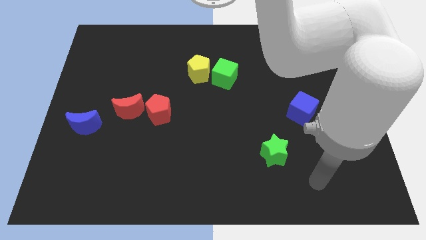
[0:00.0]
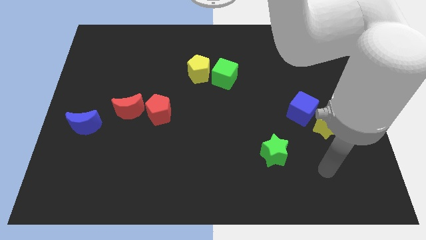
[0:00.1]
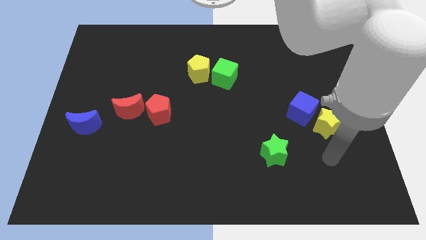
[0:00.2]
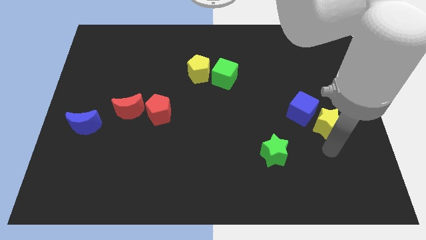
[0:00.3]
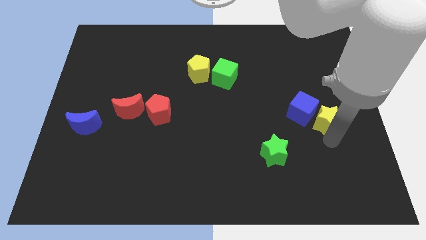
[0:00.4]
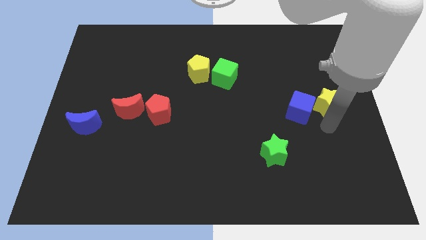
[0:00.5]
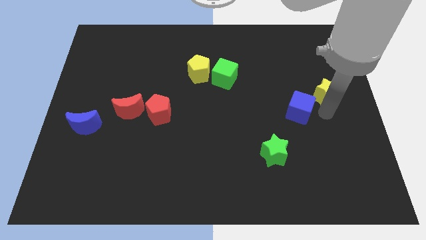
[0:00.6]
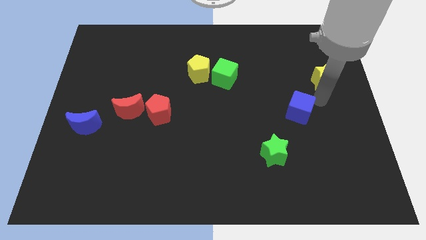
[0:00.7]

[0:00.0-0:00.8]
separate the blue cube from the yellow star

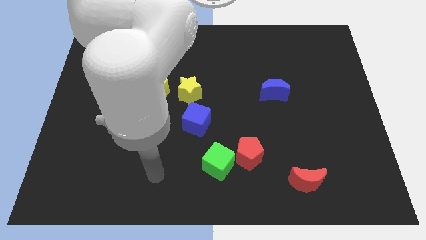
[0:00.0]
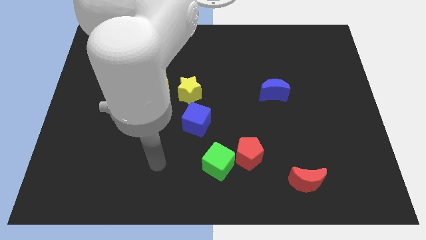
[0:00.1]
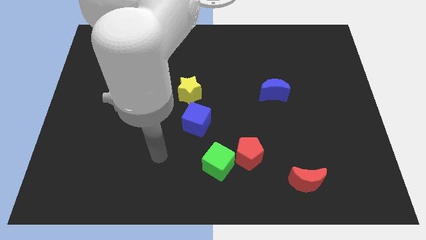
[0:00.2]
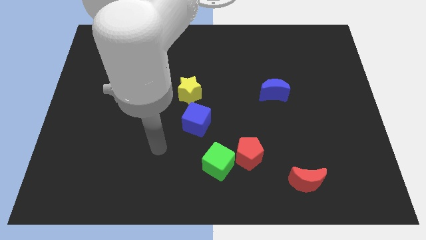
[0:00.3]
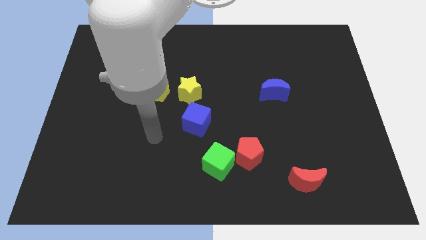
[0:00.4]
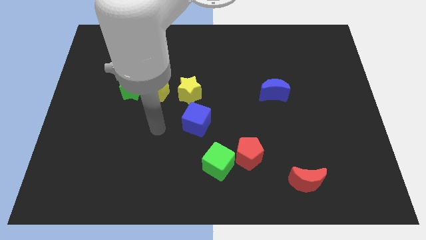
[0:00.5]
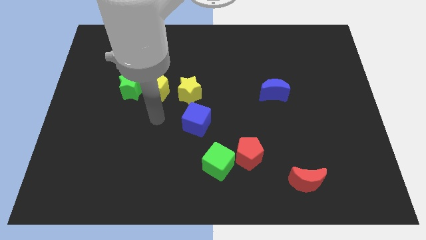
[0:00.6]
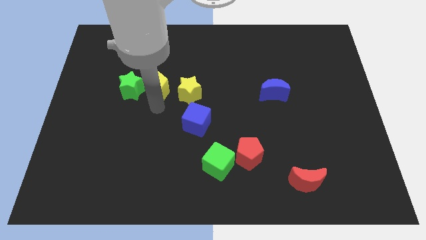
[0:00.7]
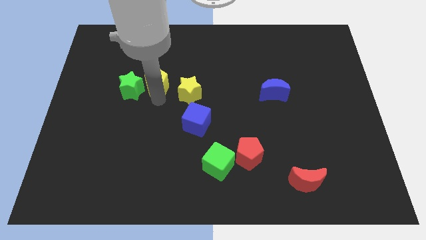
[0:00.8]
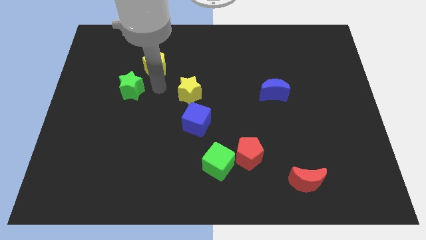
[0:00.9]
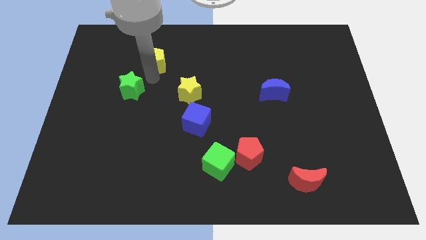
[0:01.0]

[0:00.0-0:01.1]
separate the green star from the yellow pentagon

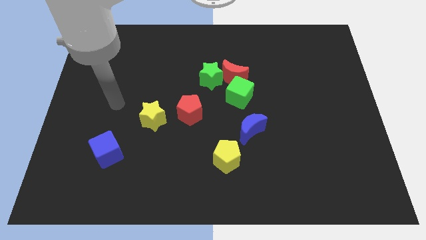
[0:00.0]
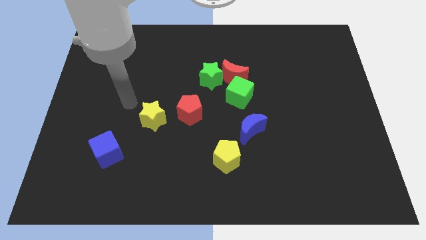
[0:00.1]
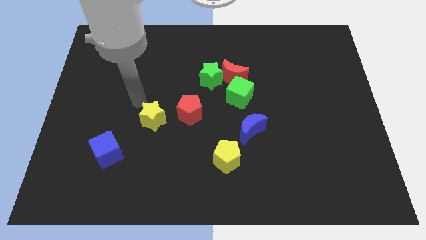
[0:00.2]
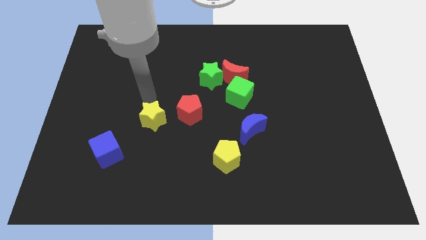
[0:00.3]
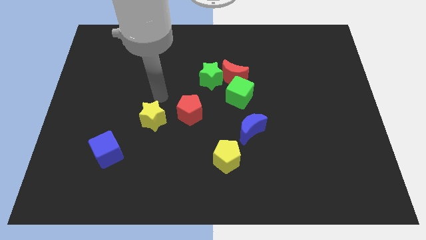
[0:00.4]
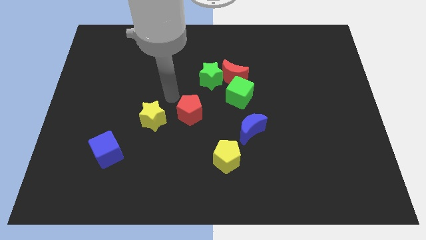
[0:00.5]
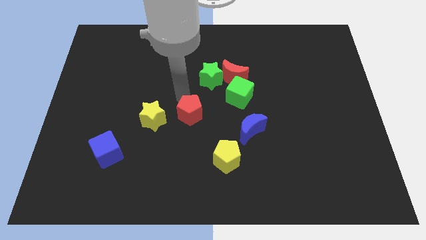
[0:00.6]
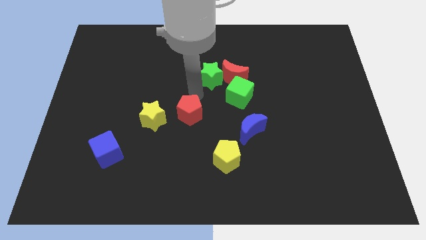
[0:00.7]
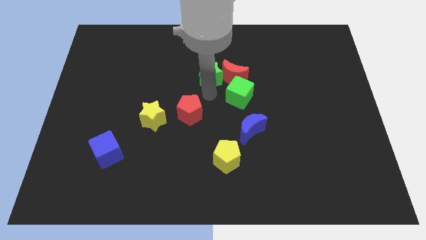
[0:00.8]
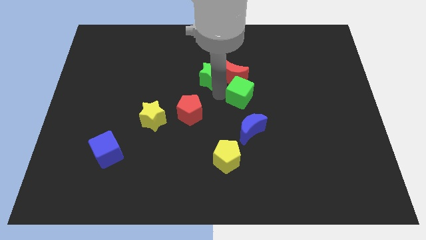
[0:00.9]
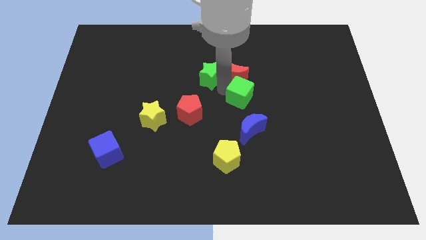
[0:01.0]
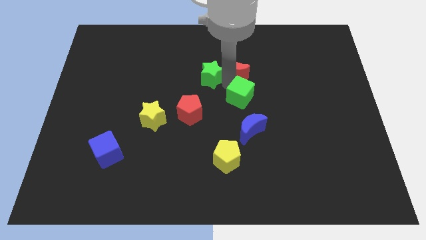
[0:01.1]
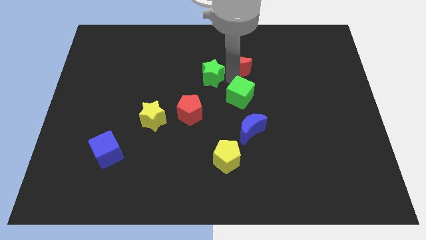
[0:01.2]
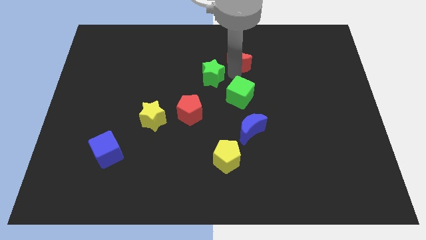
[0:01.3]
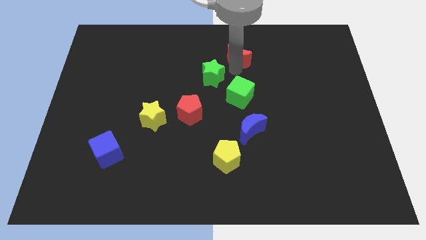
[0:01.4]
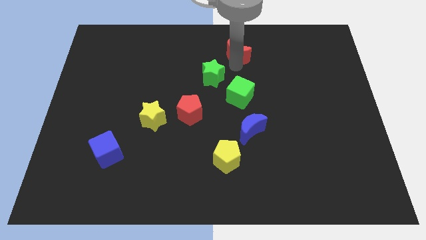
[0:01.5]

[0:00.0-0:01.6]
separate the red moon from the green star and green cube

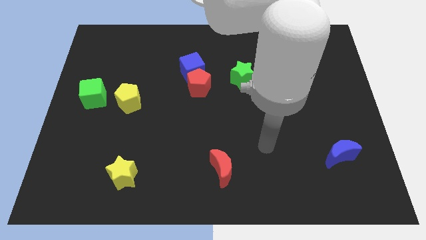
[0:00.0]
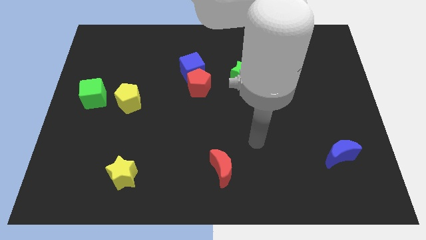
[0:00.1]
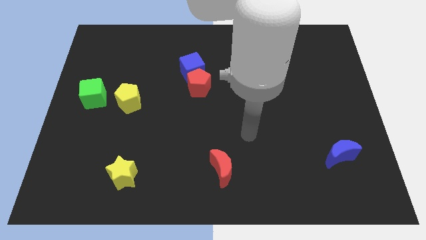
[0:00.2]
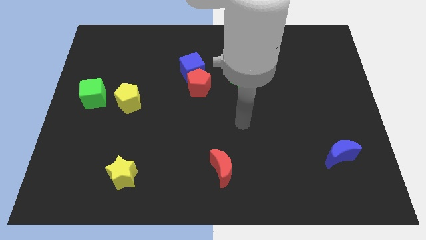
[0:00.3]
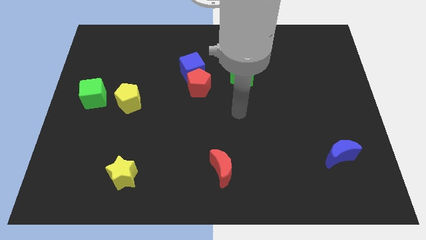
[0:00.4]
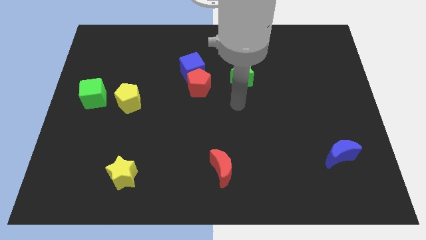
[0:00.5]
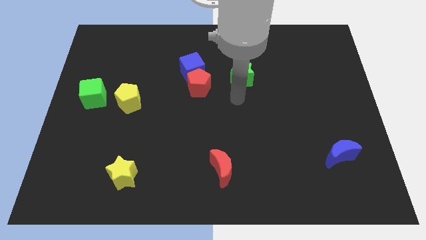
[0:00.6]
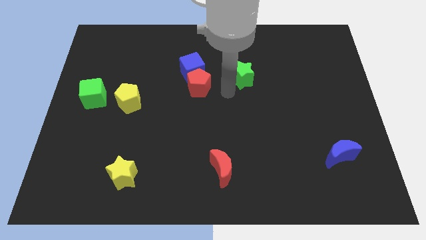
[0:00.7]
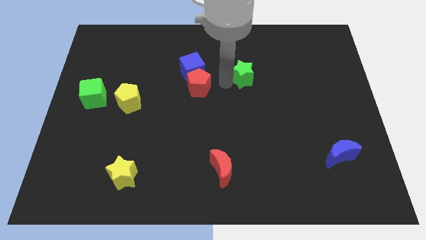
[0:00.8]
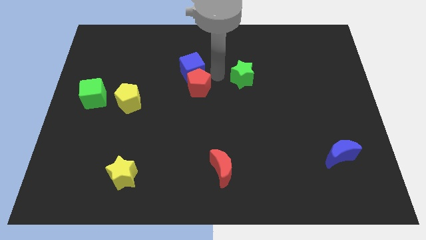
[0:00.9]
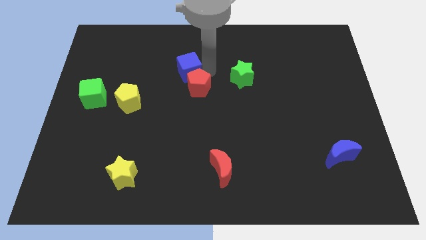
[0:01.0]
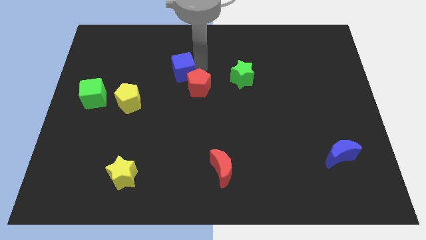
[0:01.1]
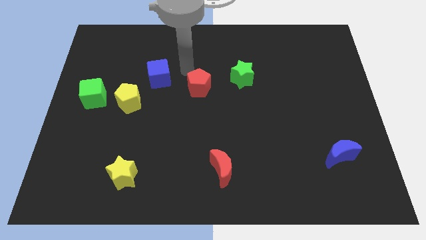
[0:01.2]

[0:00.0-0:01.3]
separate the red pentagon from the blue cube

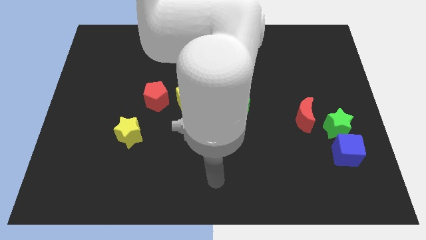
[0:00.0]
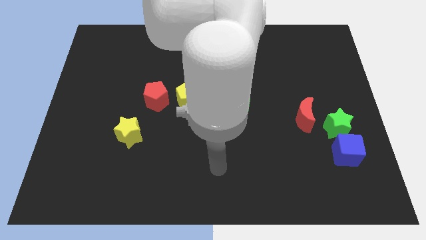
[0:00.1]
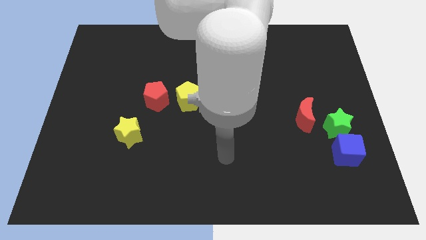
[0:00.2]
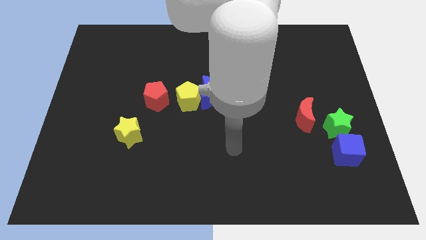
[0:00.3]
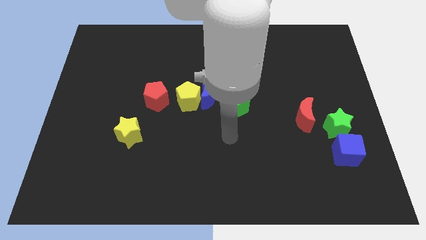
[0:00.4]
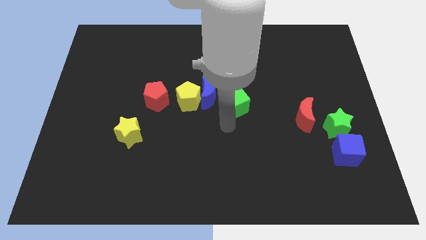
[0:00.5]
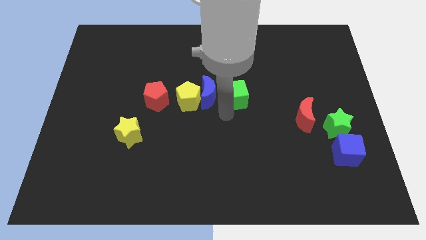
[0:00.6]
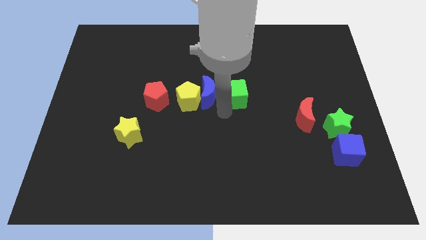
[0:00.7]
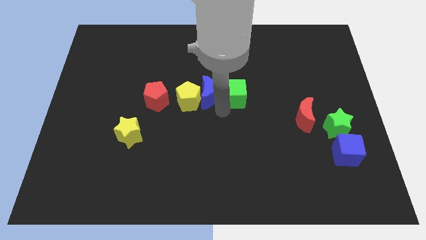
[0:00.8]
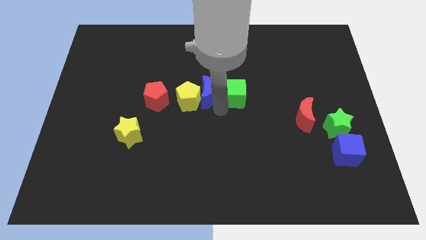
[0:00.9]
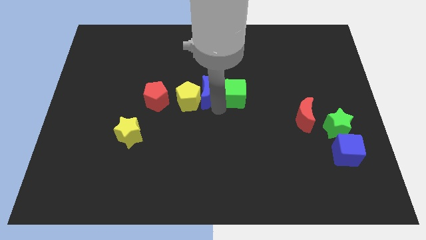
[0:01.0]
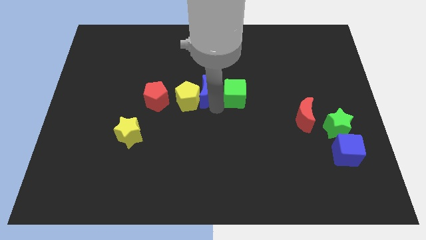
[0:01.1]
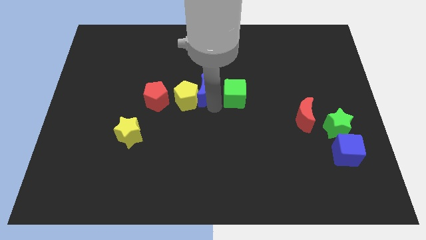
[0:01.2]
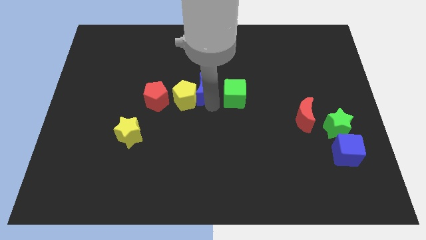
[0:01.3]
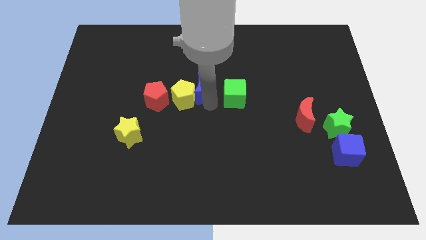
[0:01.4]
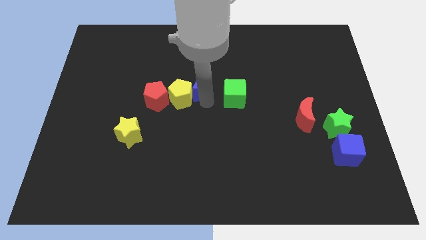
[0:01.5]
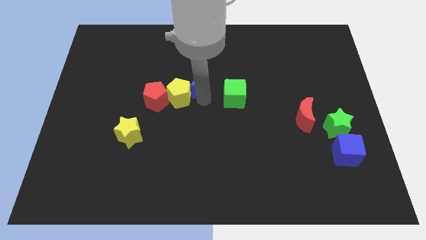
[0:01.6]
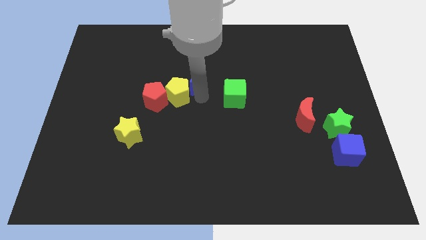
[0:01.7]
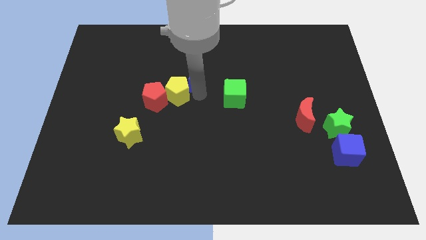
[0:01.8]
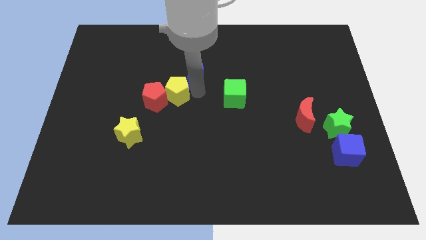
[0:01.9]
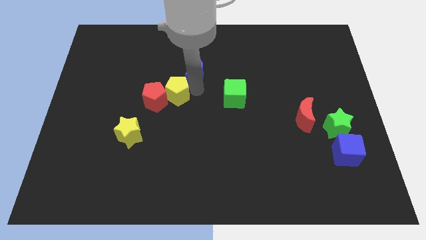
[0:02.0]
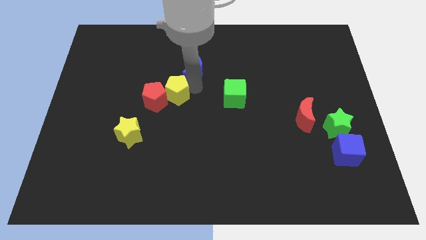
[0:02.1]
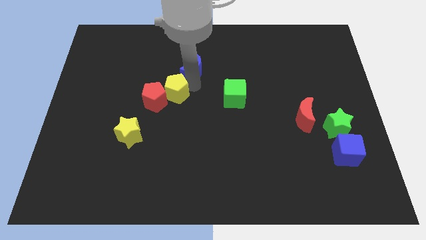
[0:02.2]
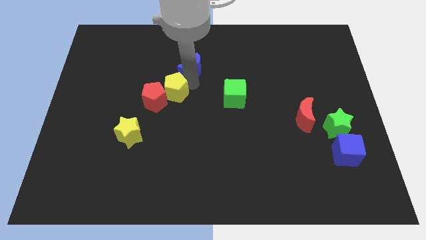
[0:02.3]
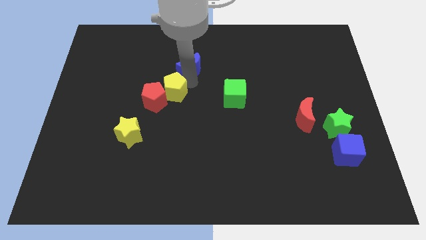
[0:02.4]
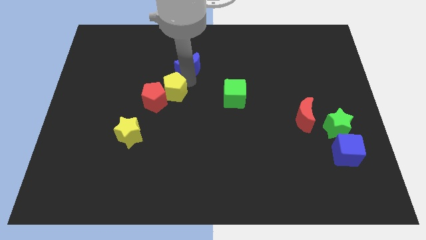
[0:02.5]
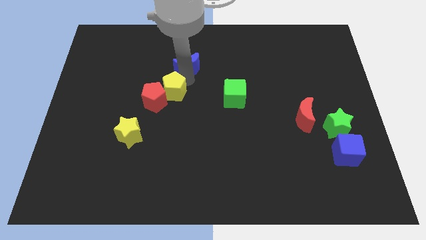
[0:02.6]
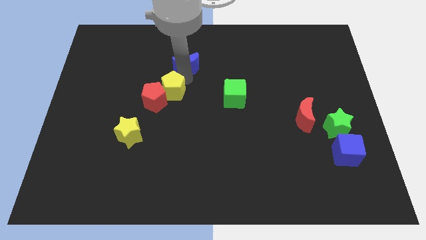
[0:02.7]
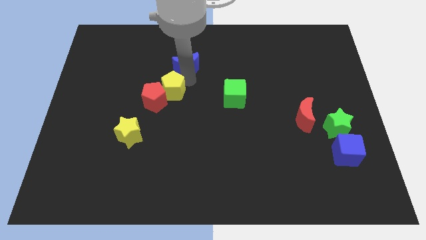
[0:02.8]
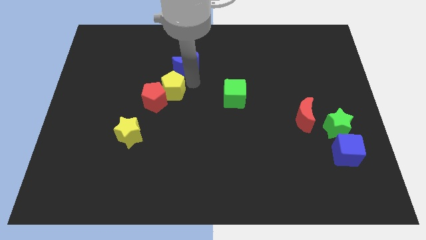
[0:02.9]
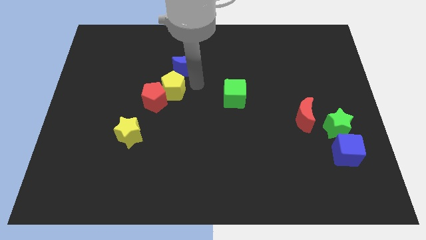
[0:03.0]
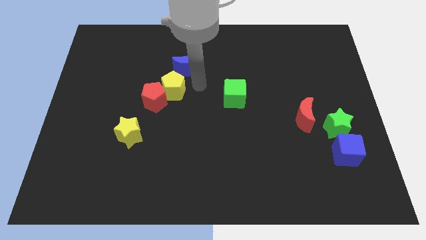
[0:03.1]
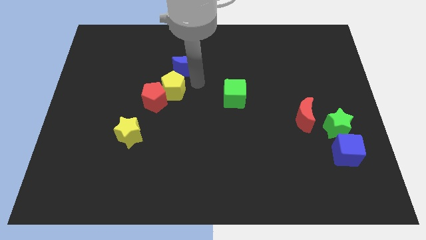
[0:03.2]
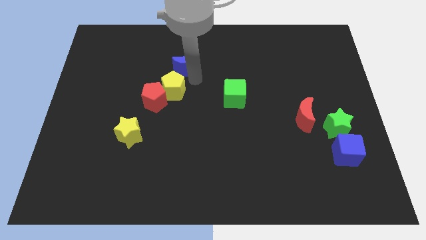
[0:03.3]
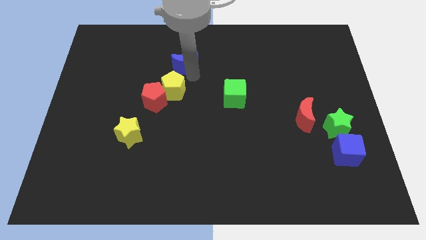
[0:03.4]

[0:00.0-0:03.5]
separate the blue moon from the yellow pentagon and green cube

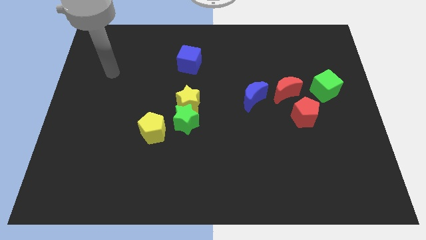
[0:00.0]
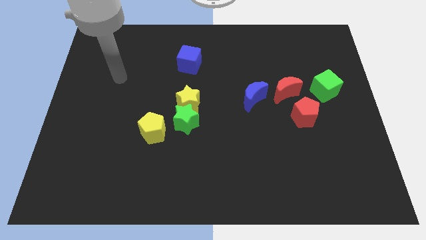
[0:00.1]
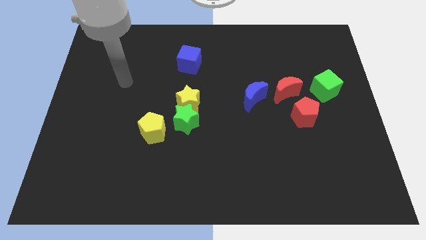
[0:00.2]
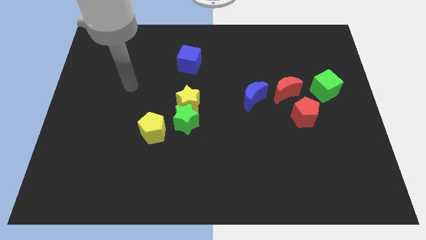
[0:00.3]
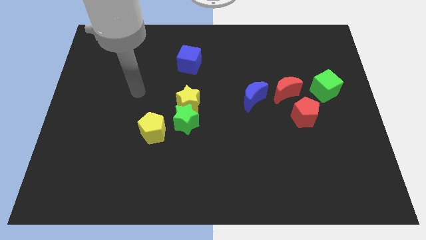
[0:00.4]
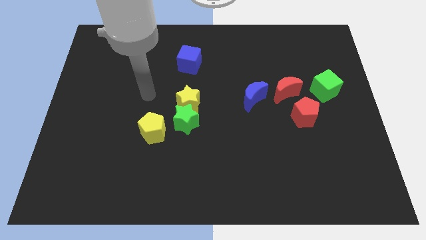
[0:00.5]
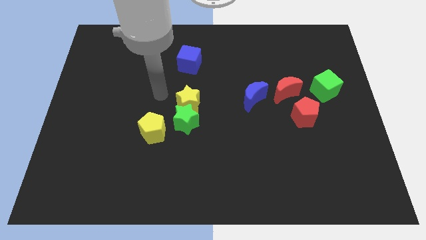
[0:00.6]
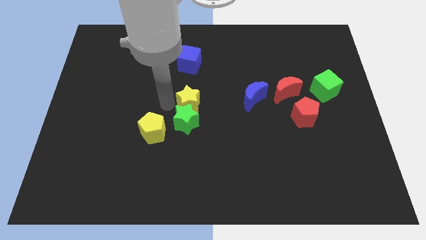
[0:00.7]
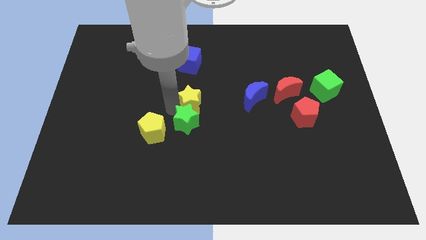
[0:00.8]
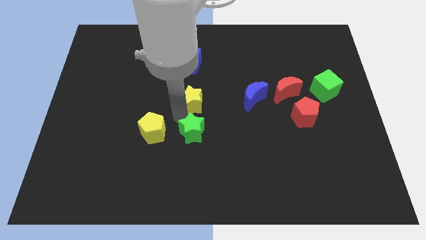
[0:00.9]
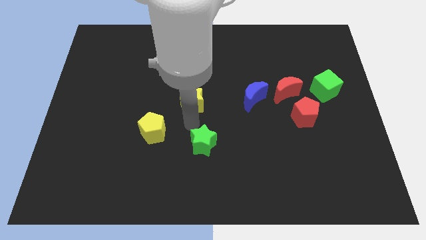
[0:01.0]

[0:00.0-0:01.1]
move the yellow star away from the green star
